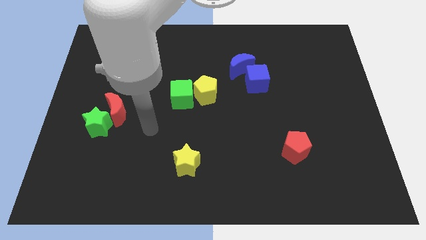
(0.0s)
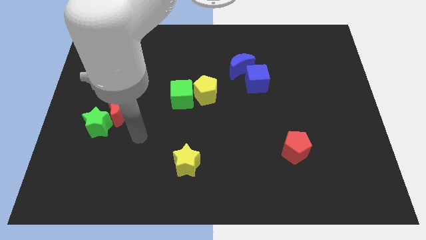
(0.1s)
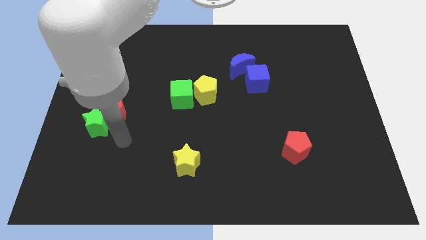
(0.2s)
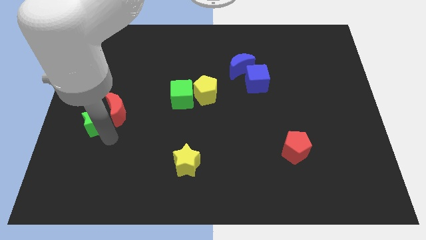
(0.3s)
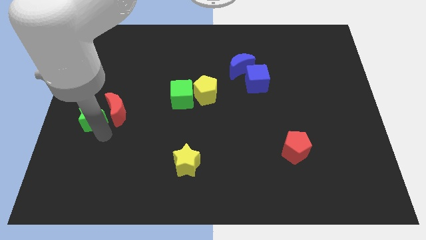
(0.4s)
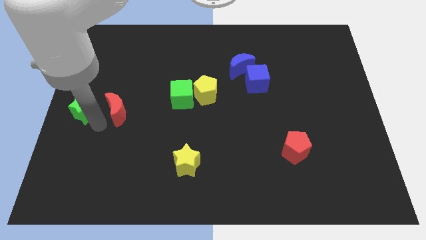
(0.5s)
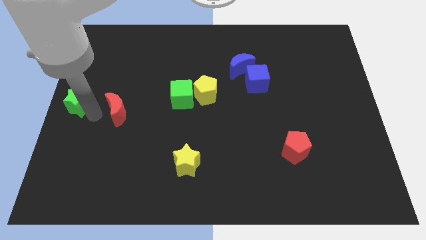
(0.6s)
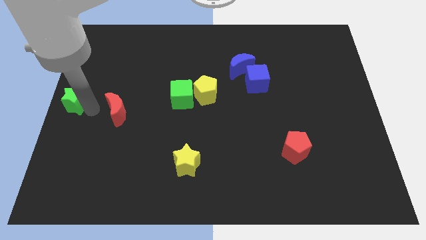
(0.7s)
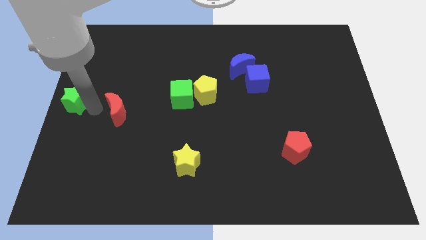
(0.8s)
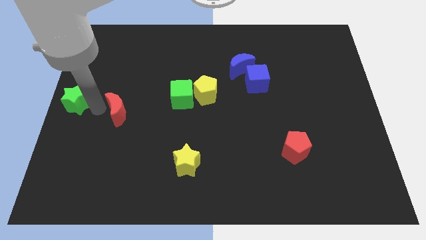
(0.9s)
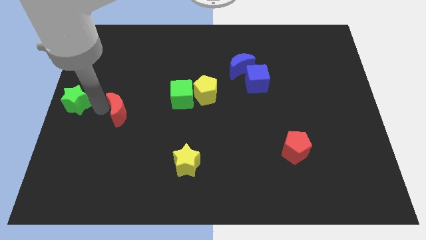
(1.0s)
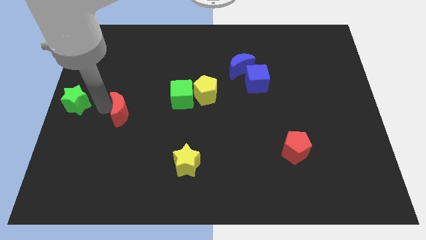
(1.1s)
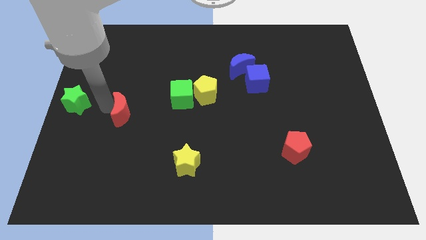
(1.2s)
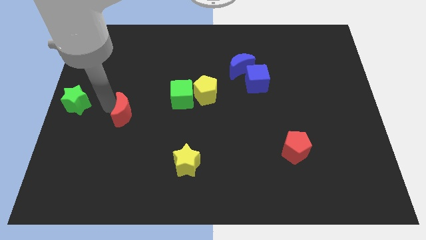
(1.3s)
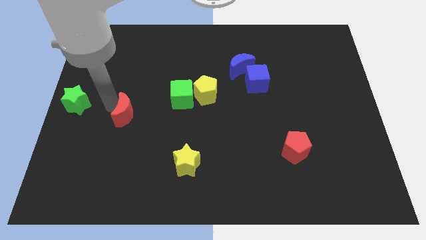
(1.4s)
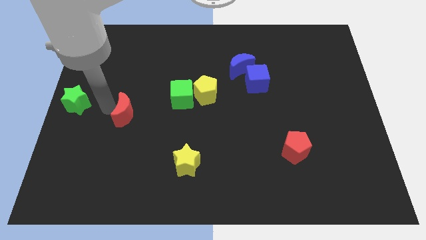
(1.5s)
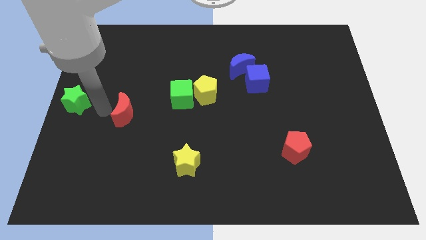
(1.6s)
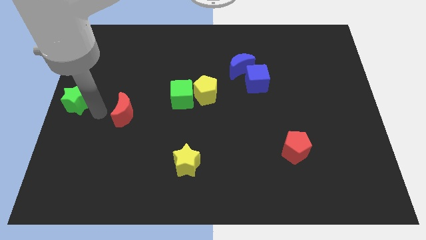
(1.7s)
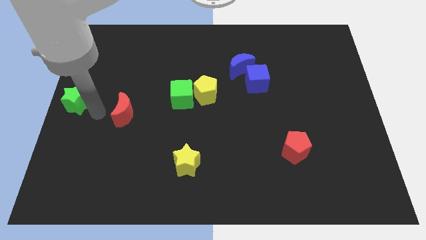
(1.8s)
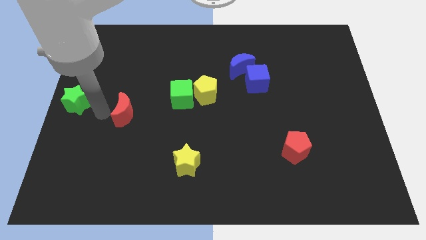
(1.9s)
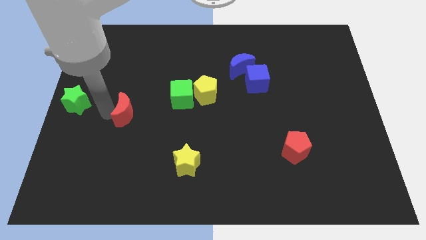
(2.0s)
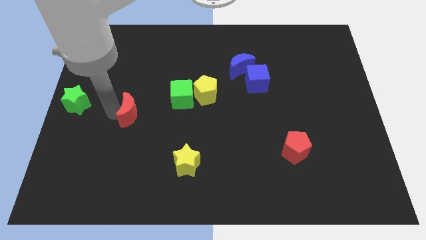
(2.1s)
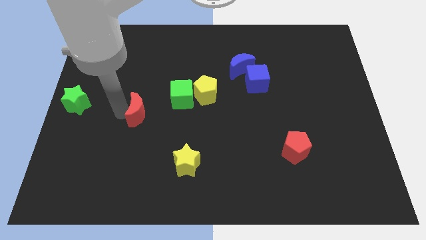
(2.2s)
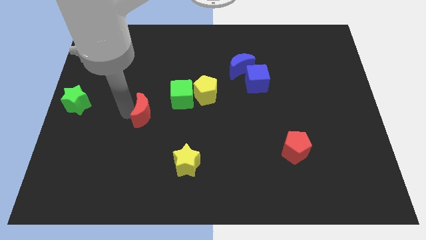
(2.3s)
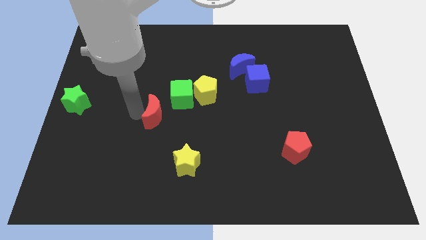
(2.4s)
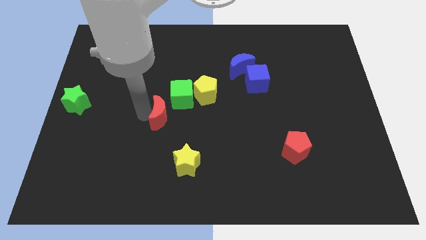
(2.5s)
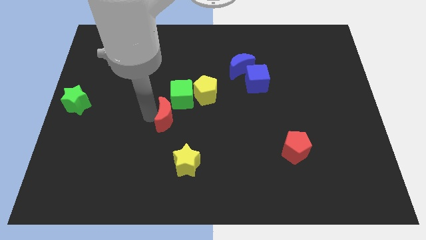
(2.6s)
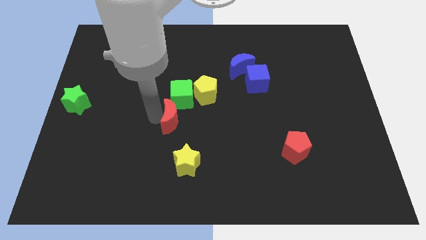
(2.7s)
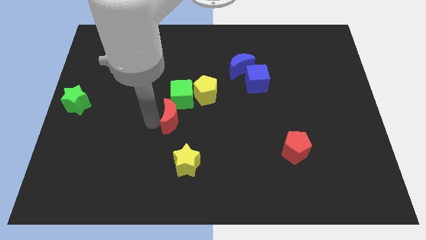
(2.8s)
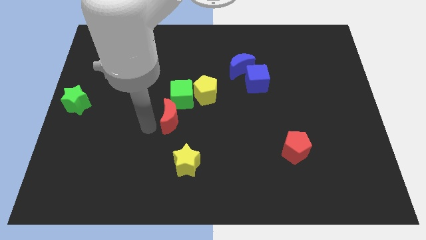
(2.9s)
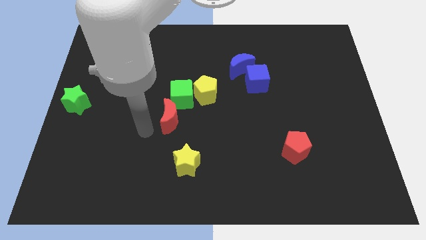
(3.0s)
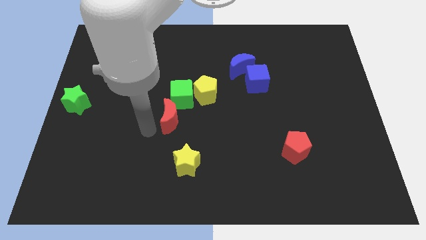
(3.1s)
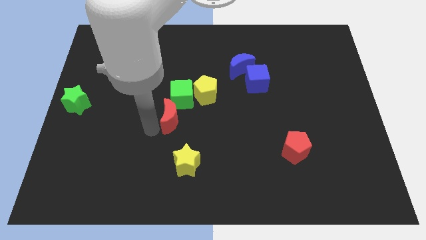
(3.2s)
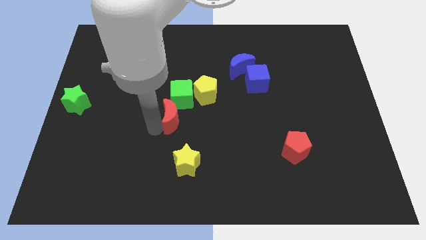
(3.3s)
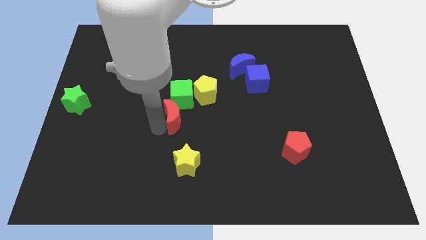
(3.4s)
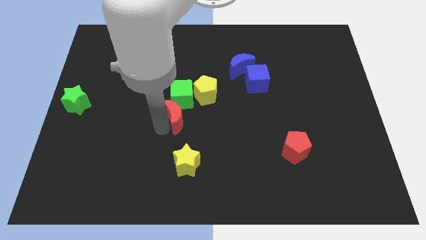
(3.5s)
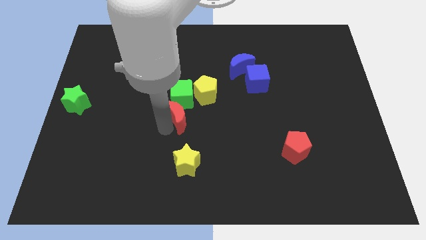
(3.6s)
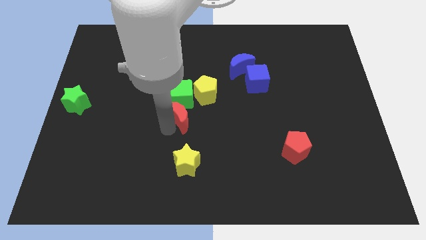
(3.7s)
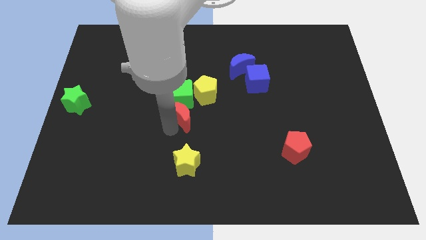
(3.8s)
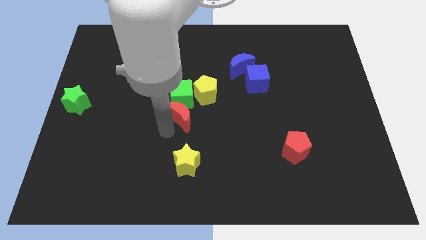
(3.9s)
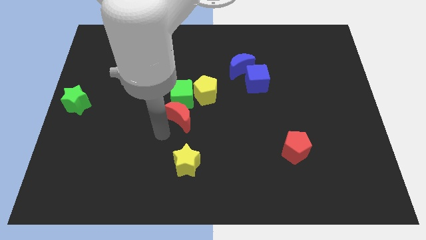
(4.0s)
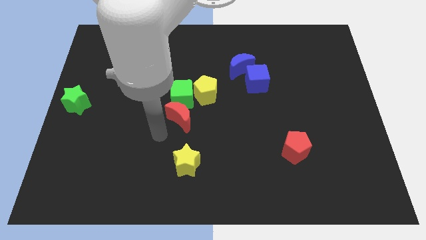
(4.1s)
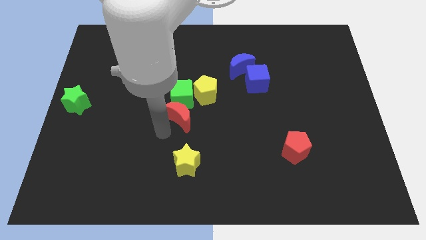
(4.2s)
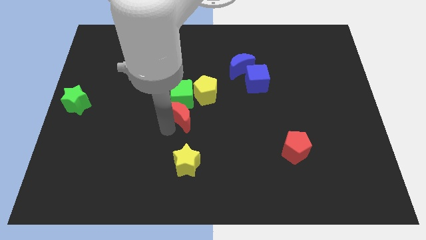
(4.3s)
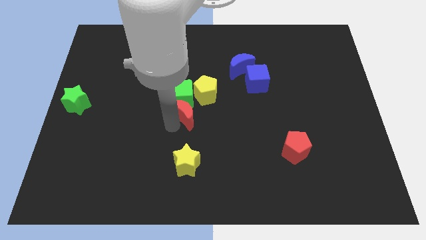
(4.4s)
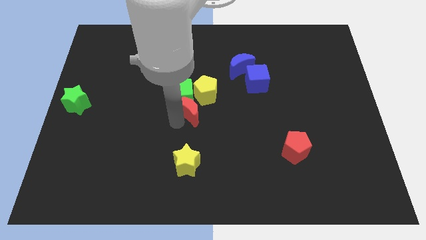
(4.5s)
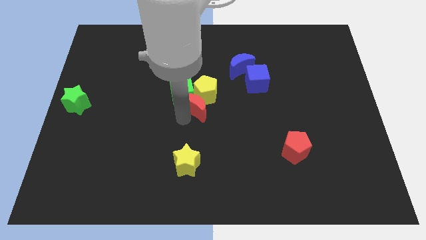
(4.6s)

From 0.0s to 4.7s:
put the red moon next to the yellow pentagon

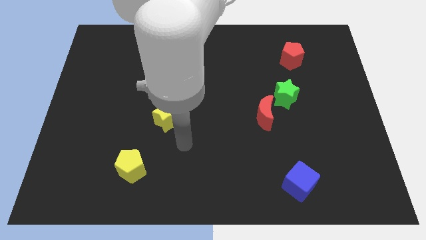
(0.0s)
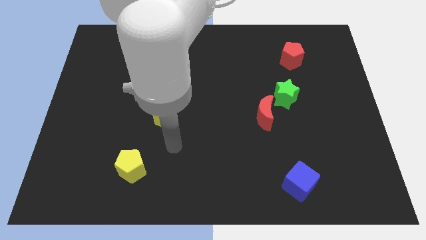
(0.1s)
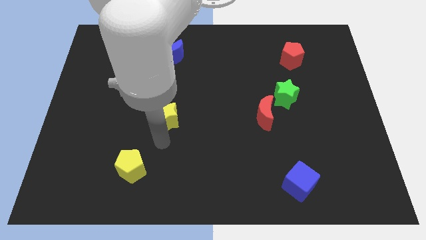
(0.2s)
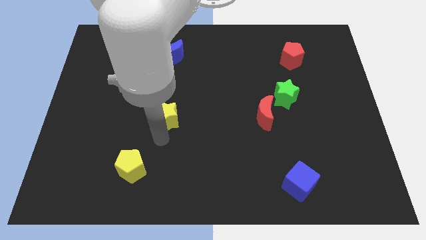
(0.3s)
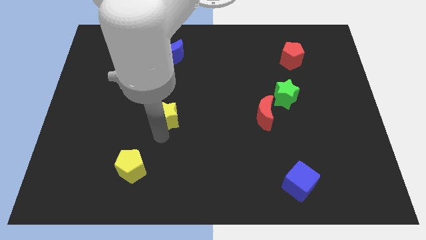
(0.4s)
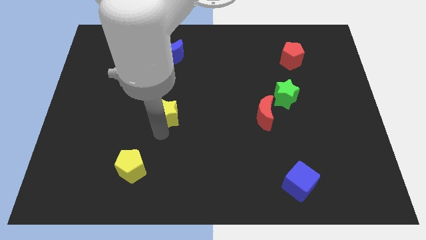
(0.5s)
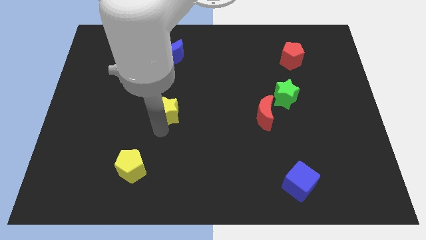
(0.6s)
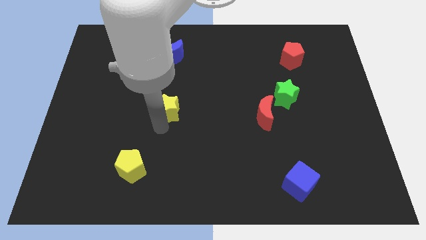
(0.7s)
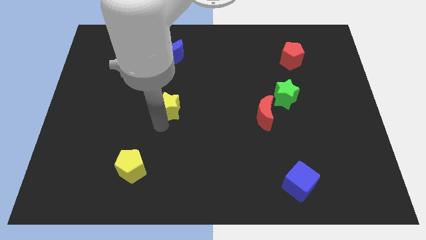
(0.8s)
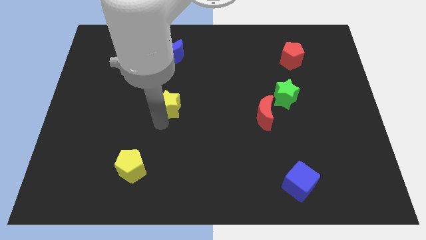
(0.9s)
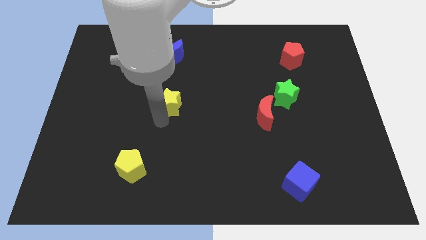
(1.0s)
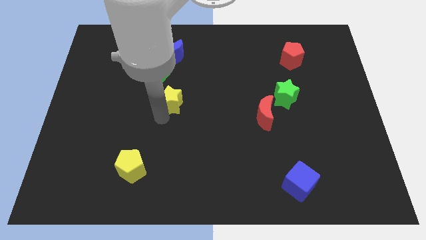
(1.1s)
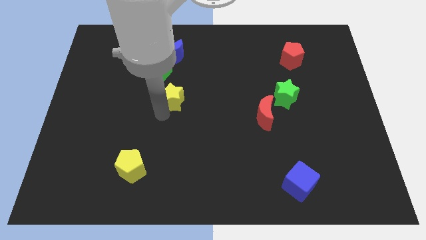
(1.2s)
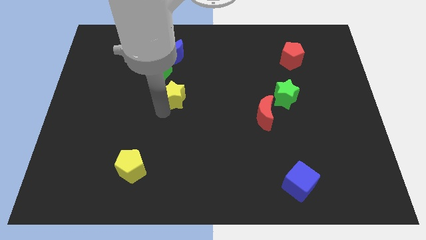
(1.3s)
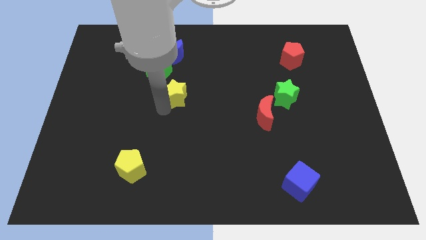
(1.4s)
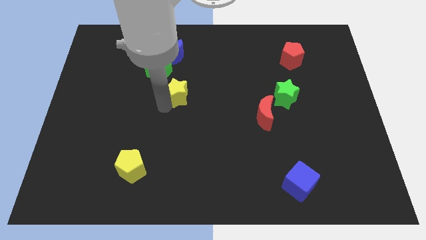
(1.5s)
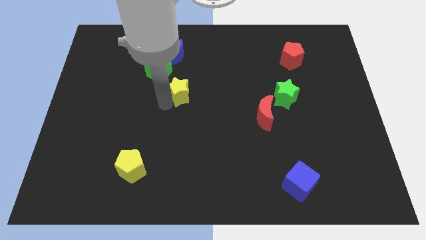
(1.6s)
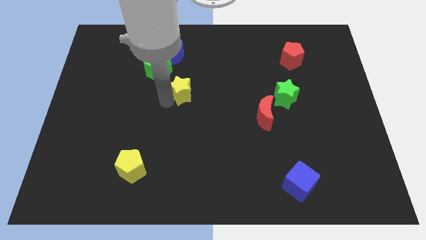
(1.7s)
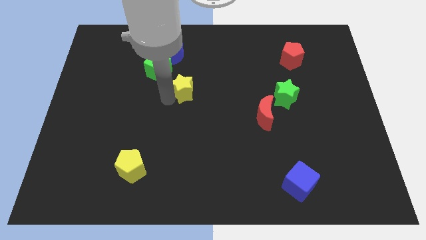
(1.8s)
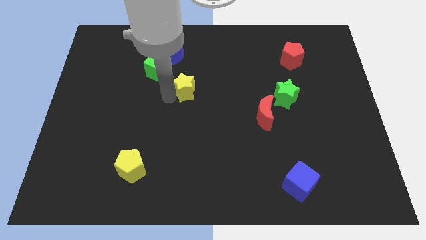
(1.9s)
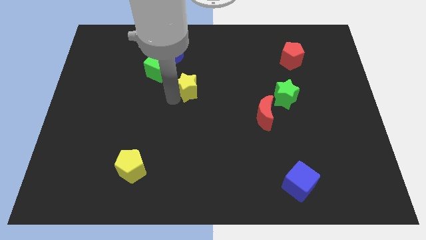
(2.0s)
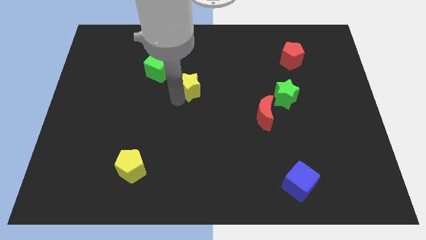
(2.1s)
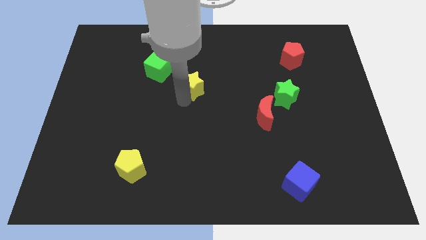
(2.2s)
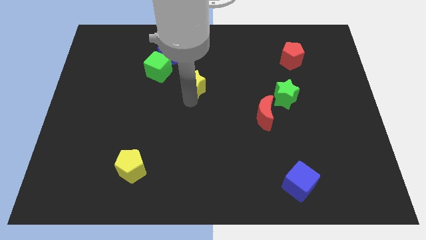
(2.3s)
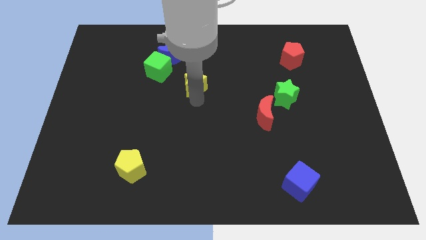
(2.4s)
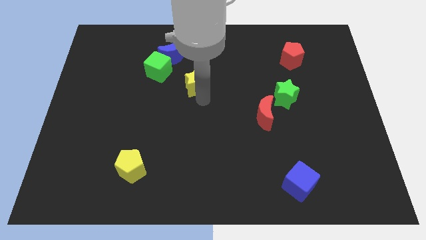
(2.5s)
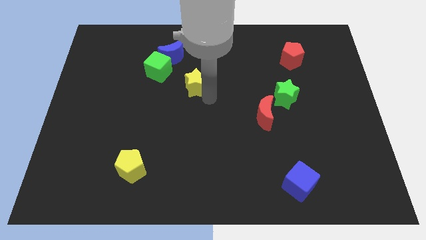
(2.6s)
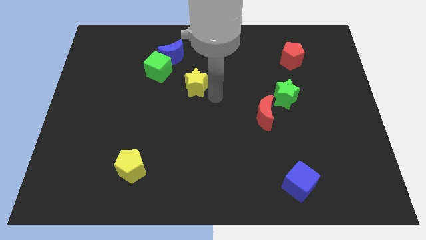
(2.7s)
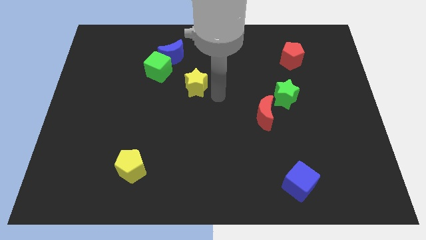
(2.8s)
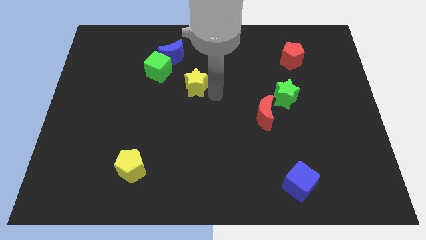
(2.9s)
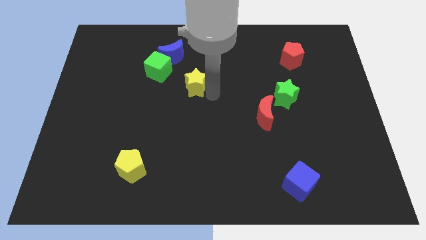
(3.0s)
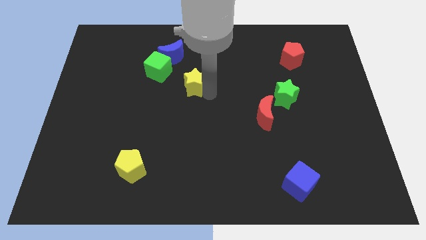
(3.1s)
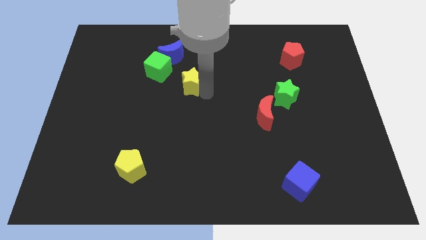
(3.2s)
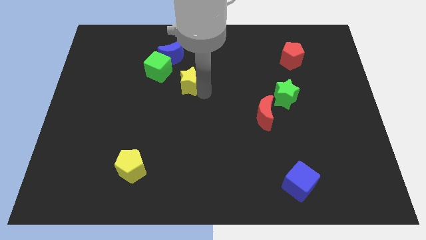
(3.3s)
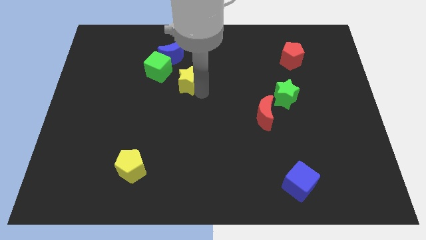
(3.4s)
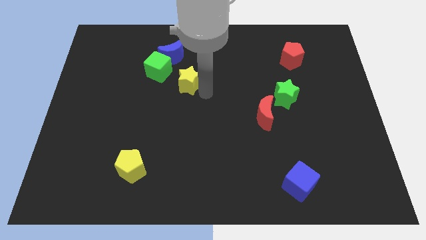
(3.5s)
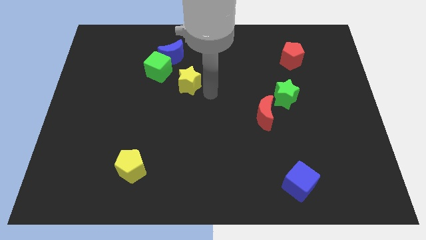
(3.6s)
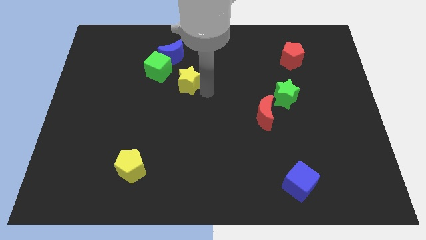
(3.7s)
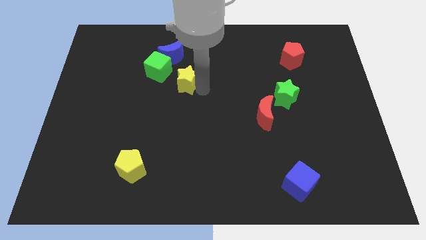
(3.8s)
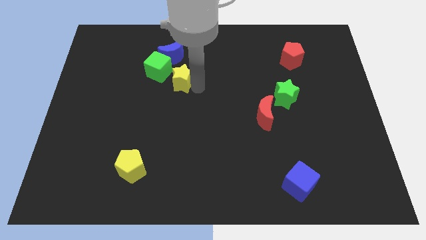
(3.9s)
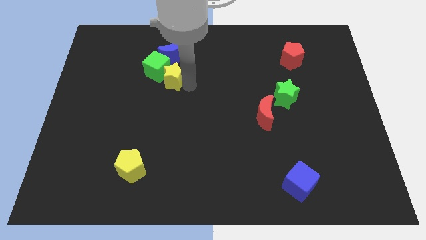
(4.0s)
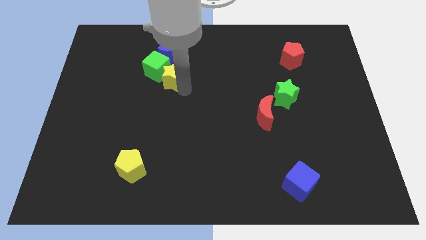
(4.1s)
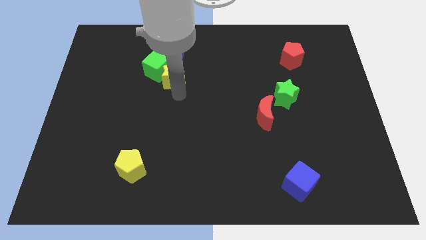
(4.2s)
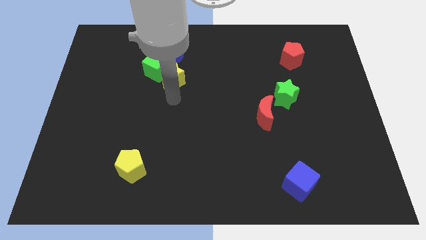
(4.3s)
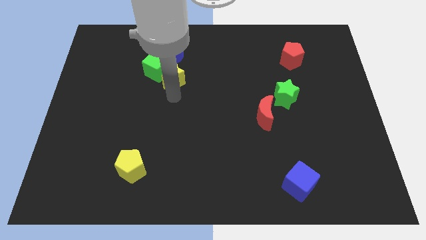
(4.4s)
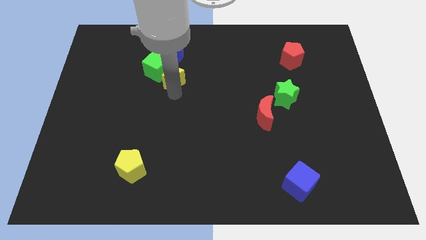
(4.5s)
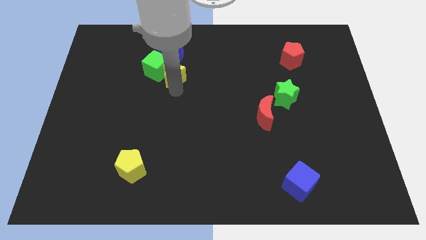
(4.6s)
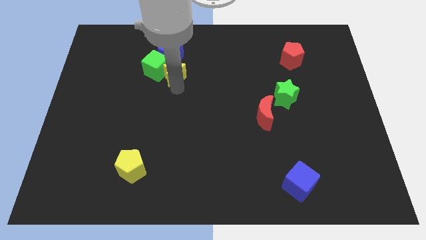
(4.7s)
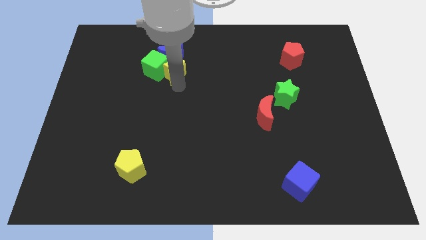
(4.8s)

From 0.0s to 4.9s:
slide the yellow star next to the blue moon
